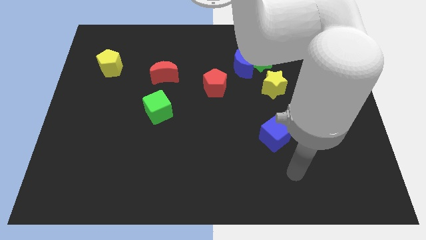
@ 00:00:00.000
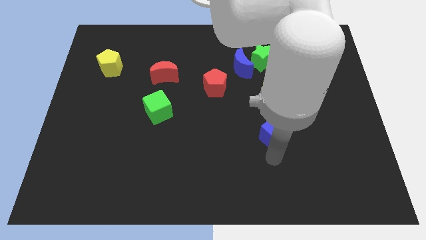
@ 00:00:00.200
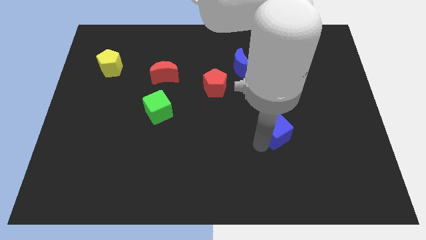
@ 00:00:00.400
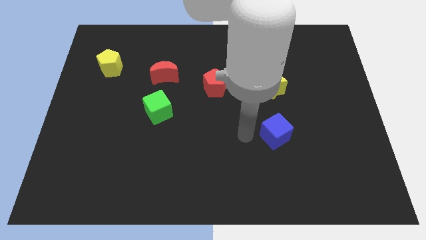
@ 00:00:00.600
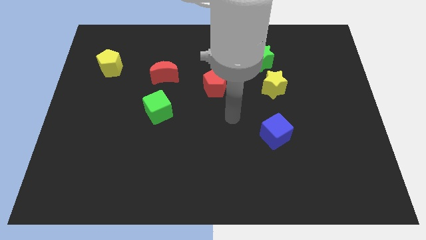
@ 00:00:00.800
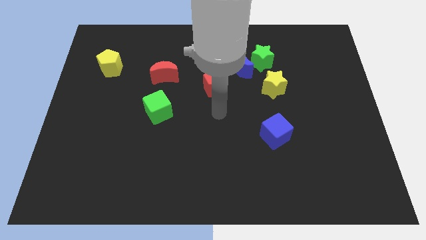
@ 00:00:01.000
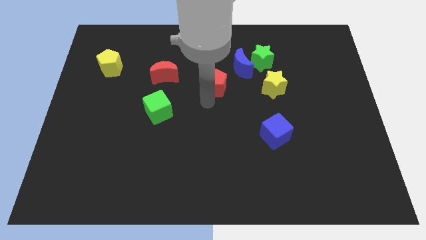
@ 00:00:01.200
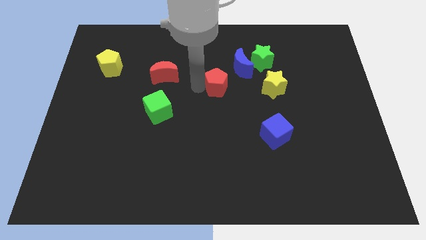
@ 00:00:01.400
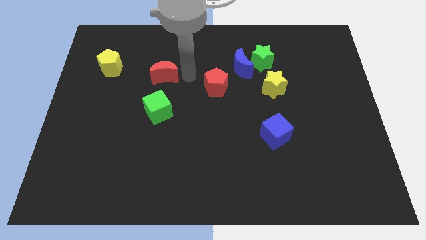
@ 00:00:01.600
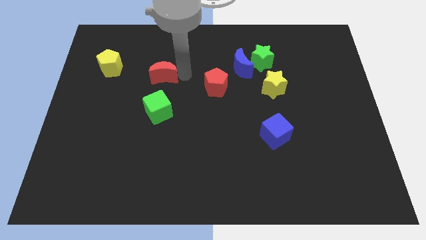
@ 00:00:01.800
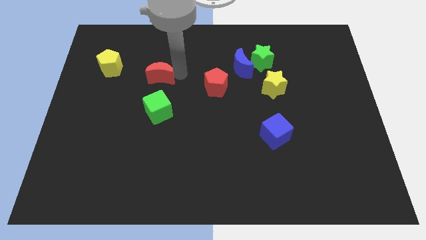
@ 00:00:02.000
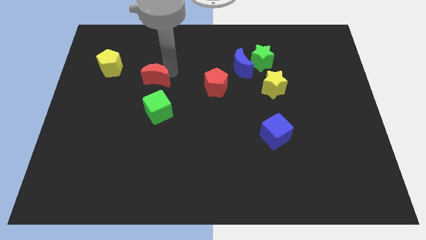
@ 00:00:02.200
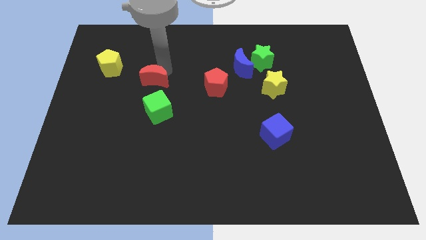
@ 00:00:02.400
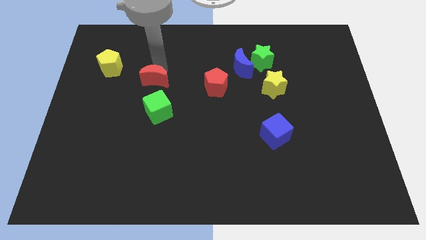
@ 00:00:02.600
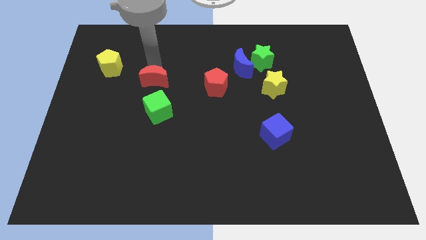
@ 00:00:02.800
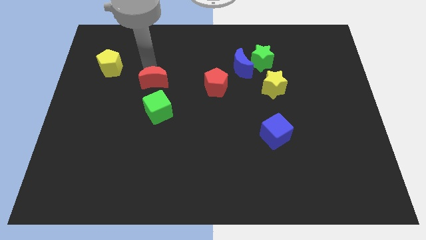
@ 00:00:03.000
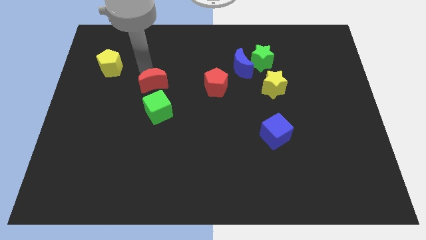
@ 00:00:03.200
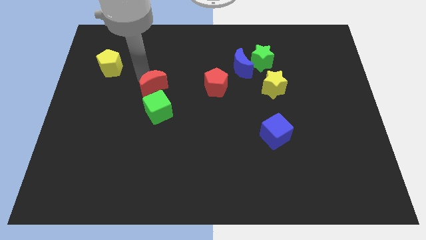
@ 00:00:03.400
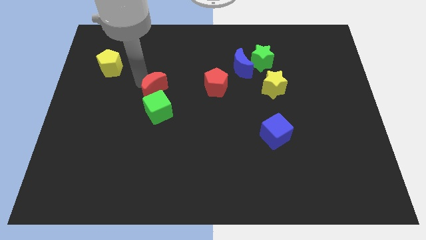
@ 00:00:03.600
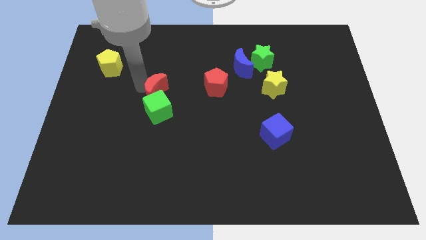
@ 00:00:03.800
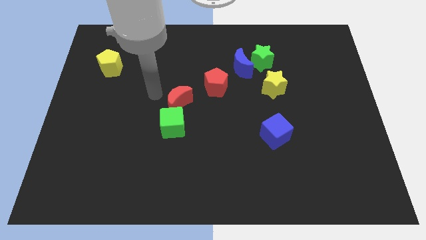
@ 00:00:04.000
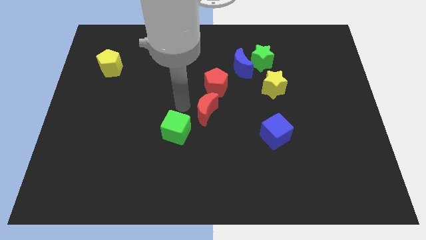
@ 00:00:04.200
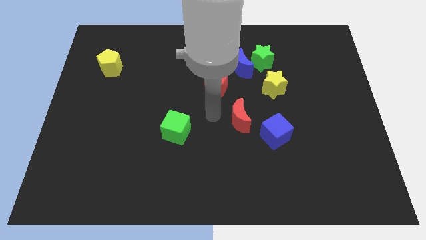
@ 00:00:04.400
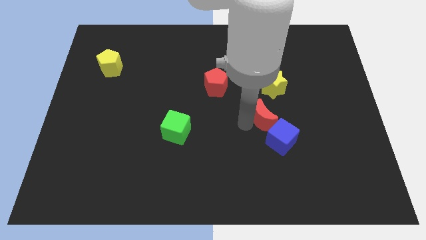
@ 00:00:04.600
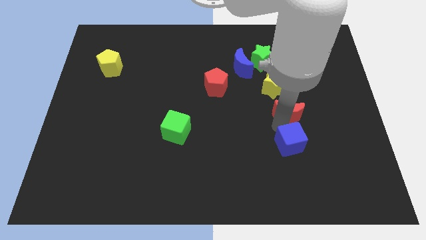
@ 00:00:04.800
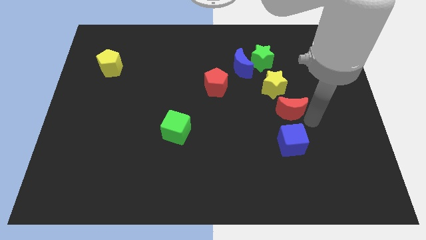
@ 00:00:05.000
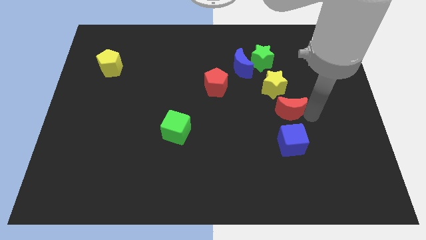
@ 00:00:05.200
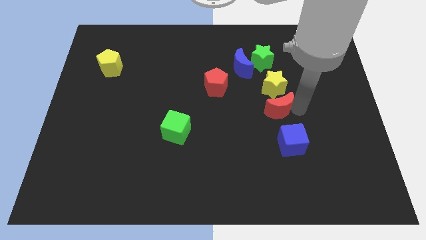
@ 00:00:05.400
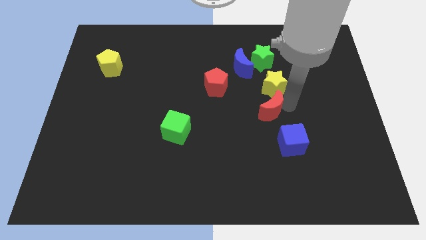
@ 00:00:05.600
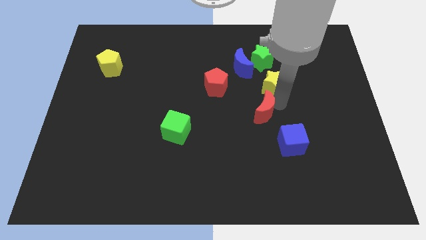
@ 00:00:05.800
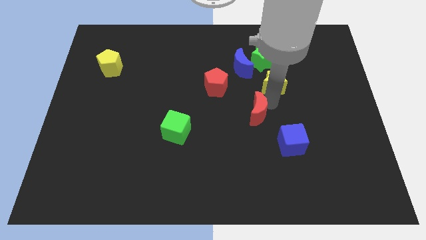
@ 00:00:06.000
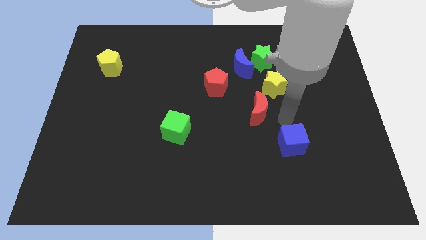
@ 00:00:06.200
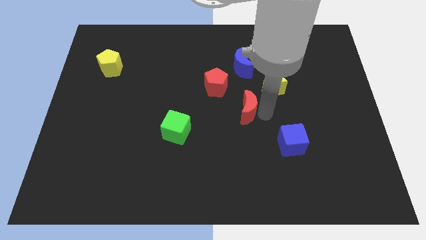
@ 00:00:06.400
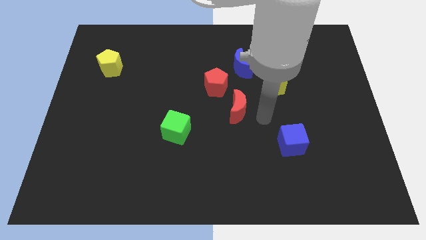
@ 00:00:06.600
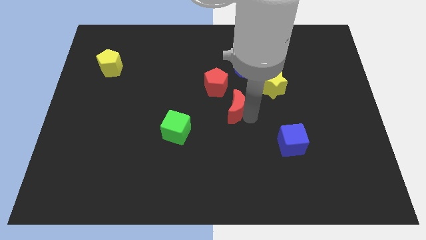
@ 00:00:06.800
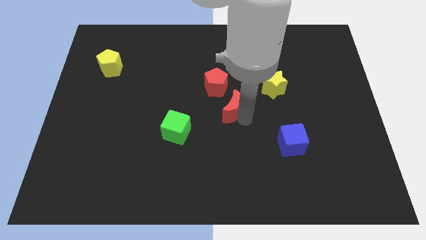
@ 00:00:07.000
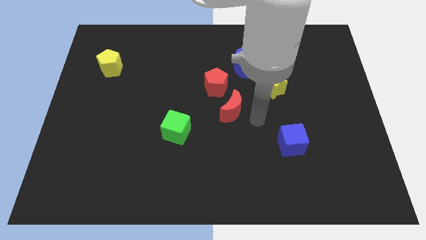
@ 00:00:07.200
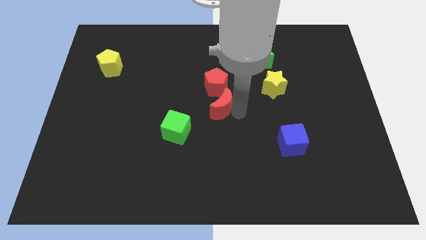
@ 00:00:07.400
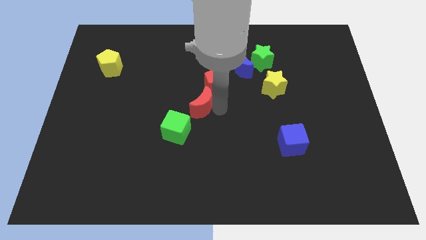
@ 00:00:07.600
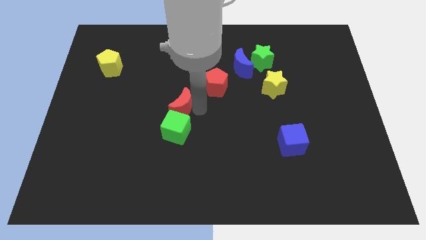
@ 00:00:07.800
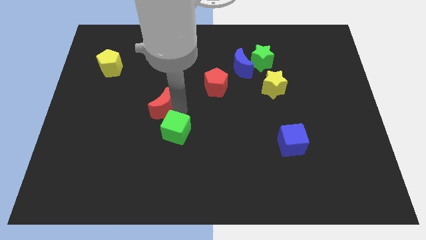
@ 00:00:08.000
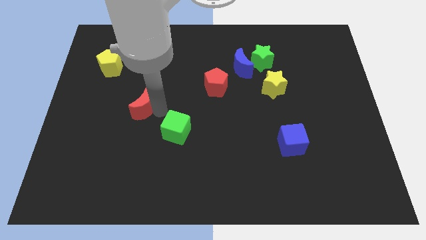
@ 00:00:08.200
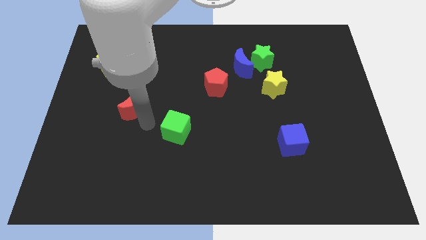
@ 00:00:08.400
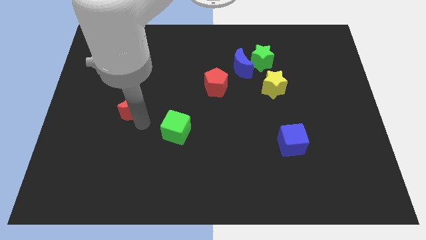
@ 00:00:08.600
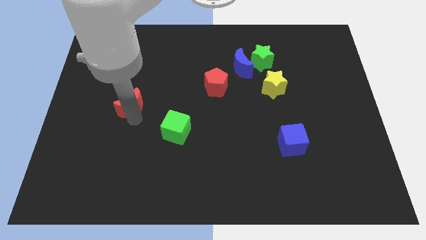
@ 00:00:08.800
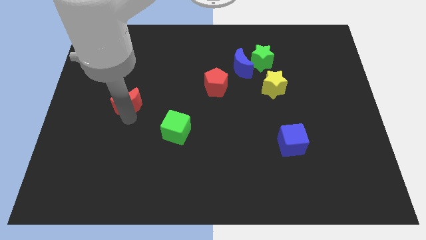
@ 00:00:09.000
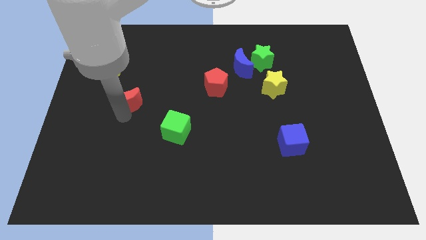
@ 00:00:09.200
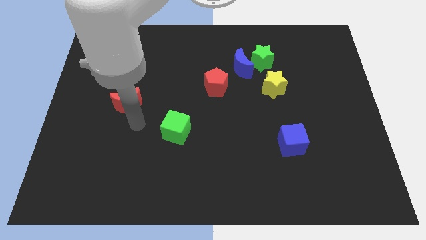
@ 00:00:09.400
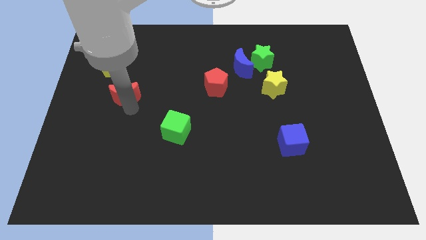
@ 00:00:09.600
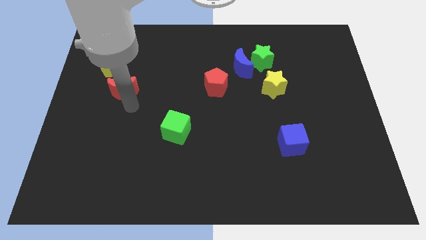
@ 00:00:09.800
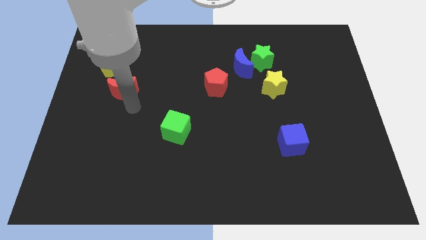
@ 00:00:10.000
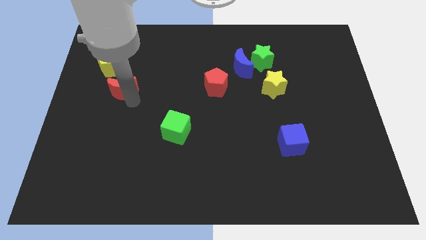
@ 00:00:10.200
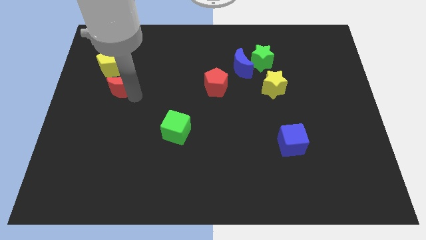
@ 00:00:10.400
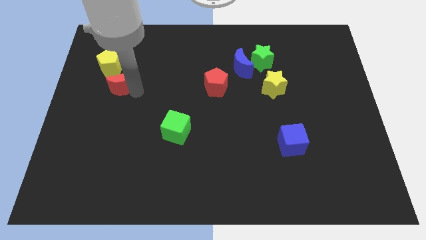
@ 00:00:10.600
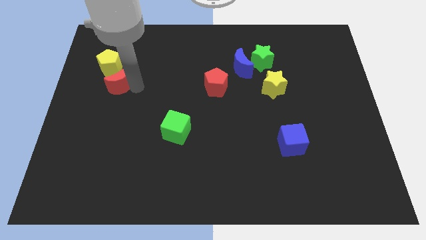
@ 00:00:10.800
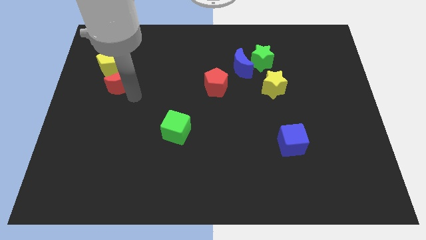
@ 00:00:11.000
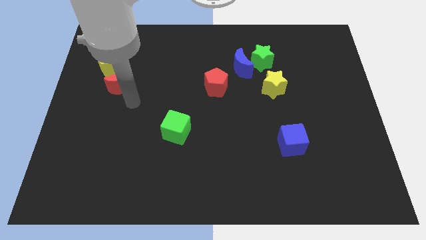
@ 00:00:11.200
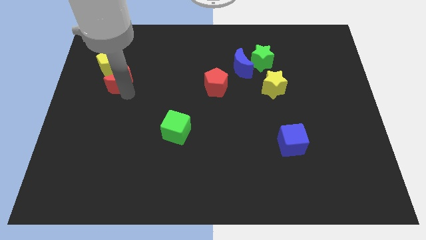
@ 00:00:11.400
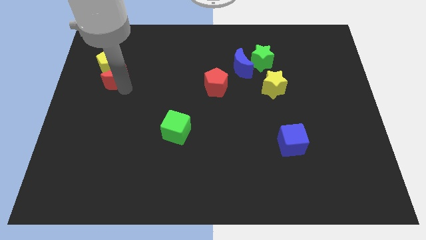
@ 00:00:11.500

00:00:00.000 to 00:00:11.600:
put the red moon next to the yellow pentagon

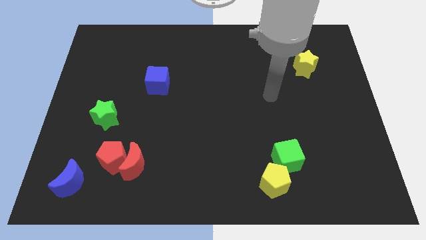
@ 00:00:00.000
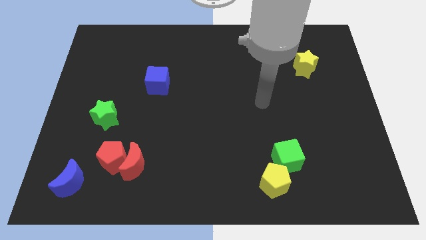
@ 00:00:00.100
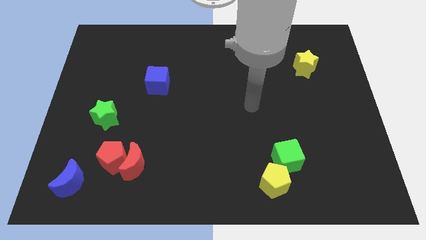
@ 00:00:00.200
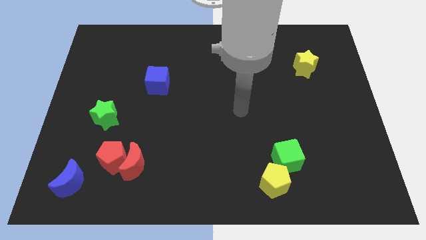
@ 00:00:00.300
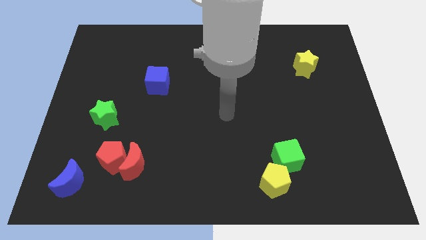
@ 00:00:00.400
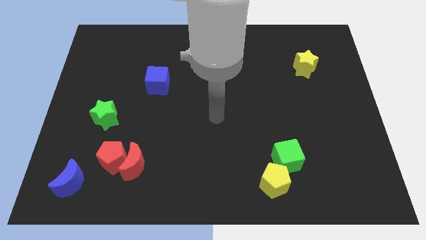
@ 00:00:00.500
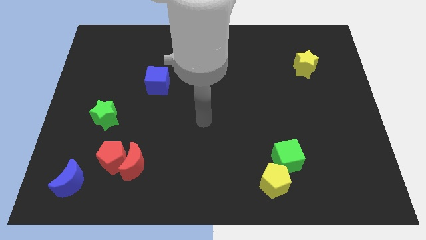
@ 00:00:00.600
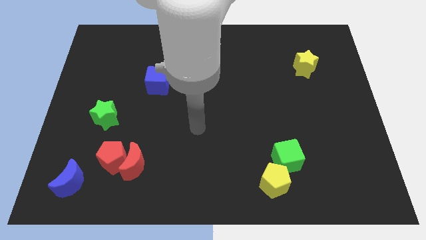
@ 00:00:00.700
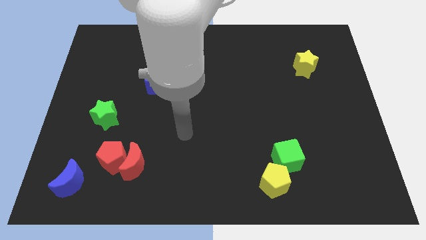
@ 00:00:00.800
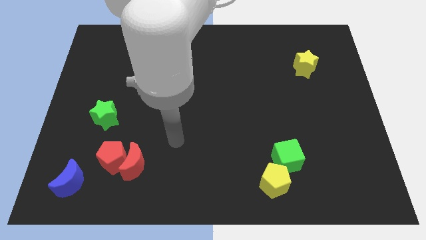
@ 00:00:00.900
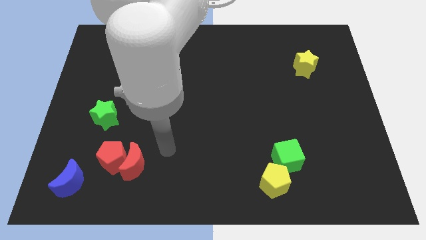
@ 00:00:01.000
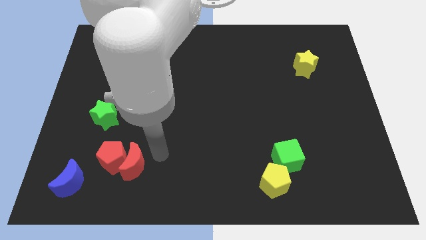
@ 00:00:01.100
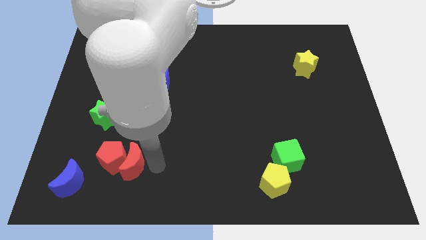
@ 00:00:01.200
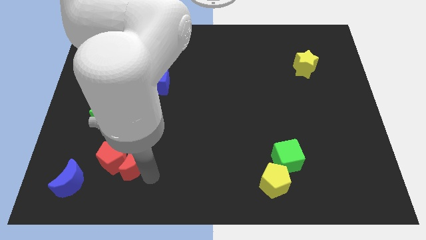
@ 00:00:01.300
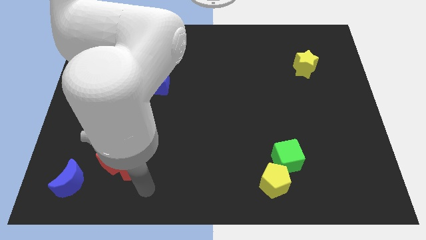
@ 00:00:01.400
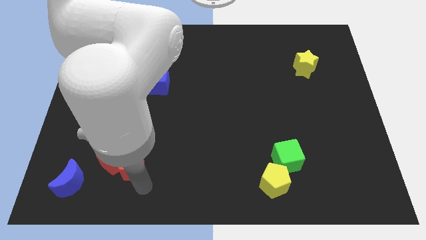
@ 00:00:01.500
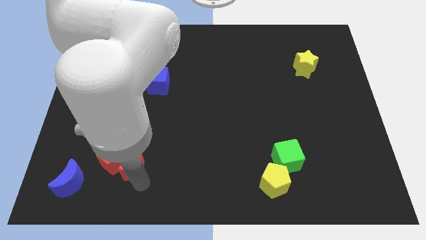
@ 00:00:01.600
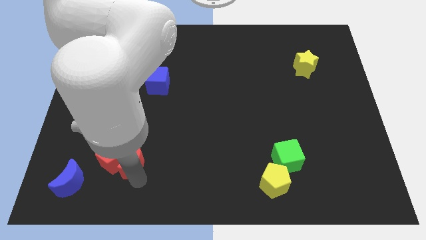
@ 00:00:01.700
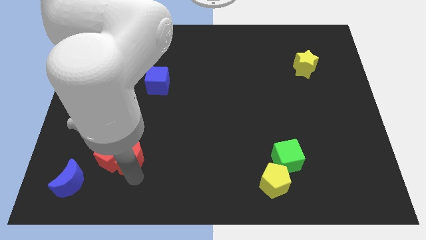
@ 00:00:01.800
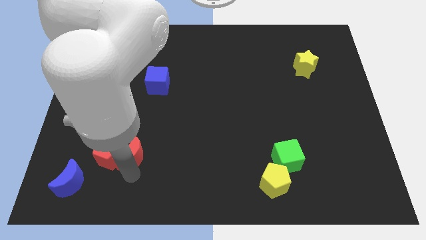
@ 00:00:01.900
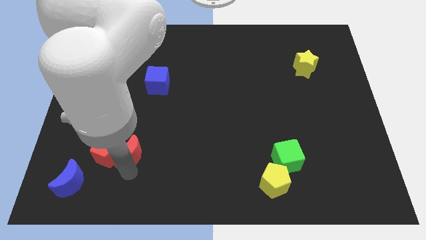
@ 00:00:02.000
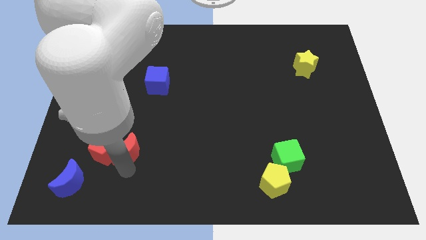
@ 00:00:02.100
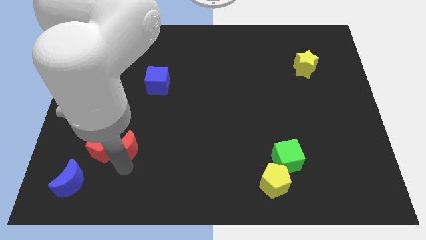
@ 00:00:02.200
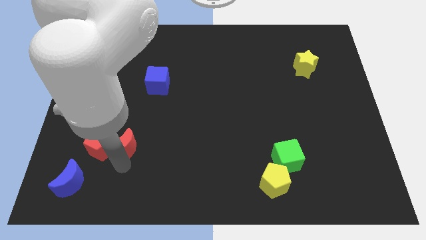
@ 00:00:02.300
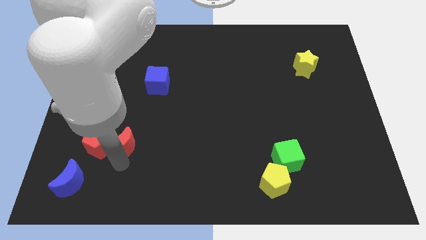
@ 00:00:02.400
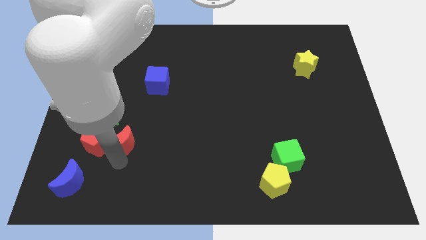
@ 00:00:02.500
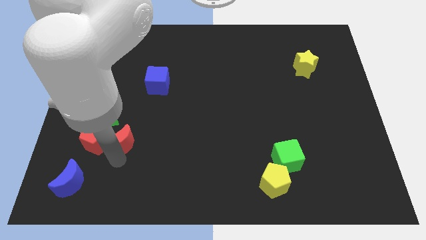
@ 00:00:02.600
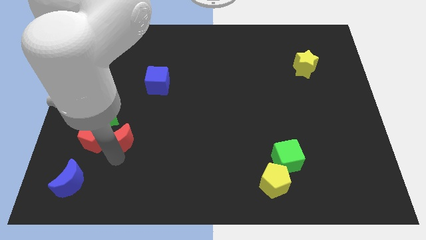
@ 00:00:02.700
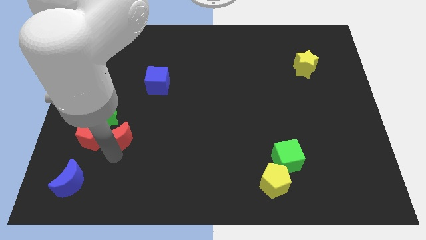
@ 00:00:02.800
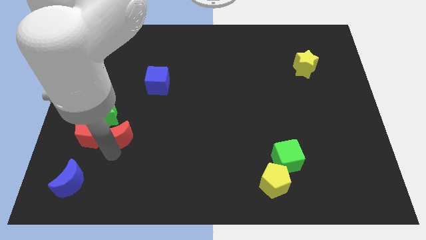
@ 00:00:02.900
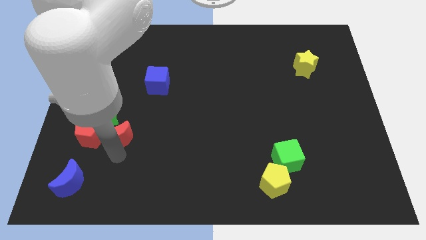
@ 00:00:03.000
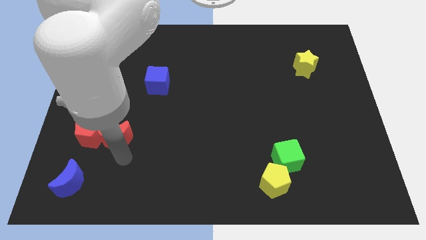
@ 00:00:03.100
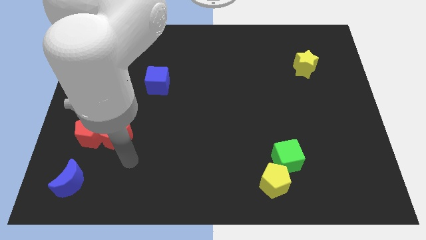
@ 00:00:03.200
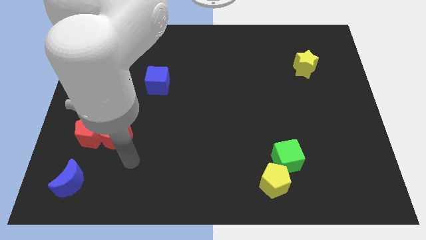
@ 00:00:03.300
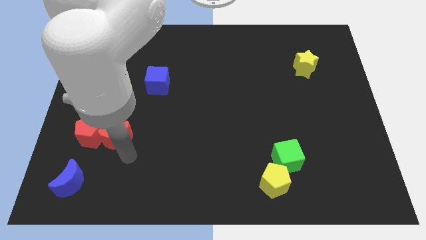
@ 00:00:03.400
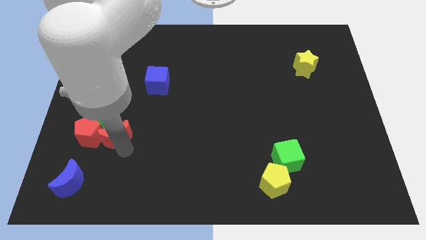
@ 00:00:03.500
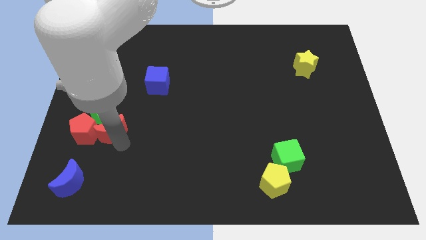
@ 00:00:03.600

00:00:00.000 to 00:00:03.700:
push the red moon next to the green star
